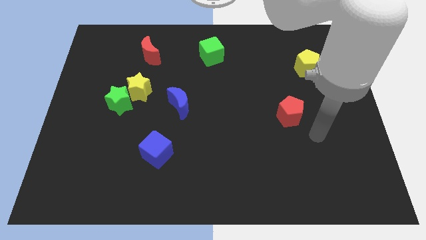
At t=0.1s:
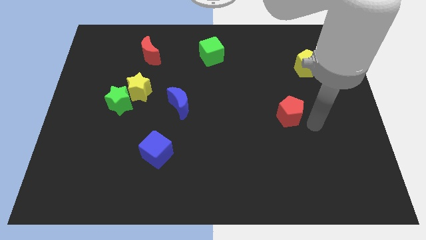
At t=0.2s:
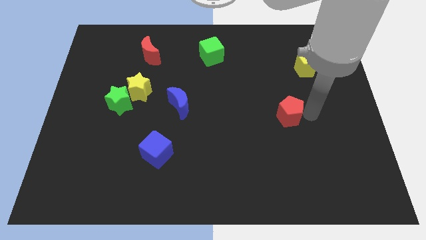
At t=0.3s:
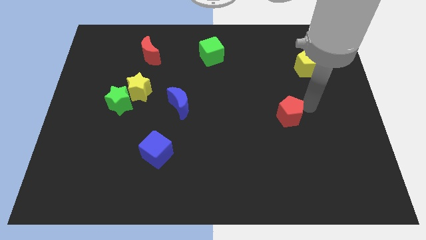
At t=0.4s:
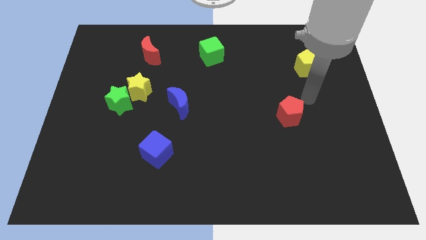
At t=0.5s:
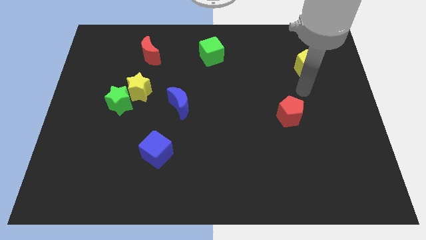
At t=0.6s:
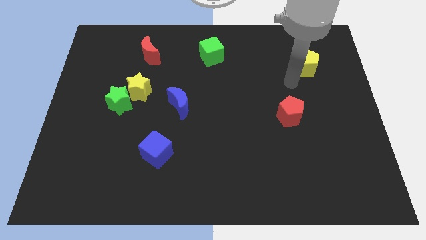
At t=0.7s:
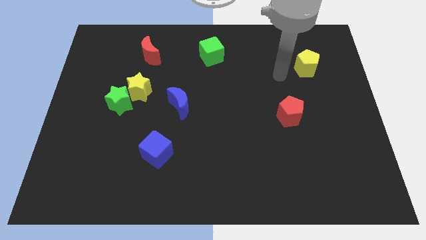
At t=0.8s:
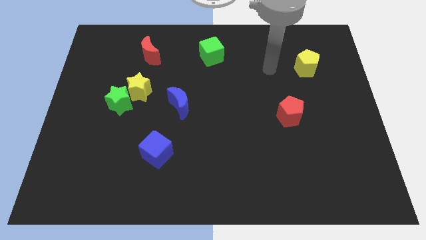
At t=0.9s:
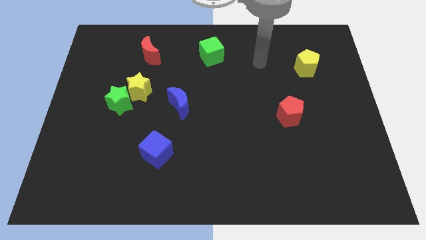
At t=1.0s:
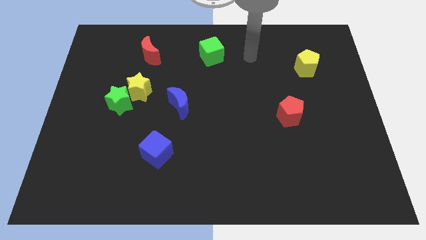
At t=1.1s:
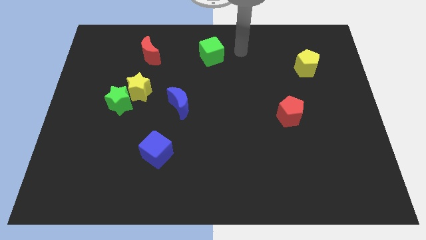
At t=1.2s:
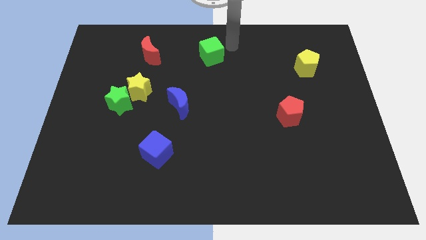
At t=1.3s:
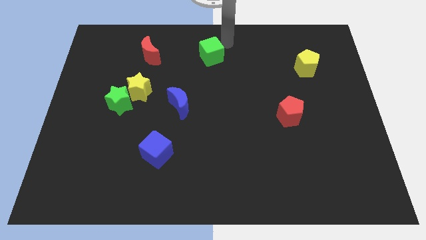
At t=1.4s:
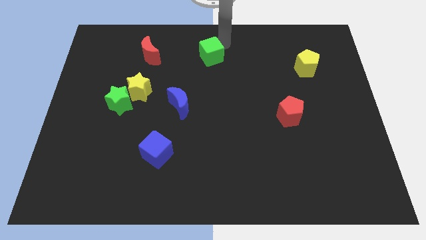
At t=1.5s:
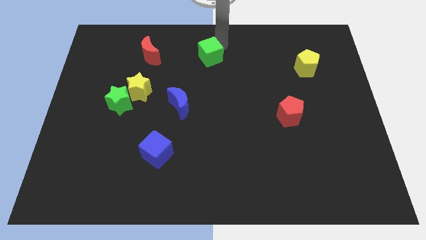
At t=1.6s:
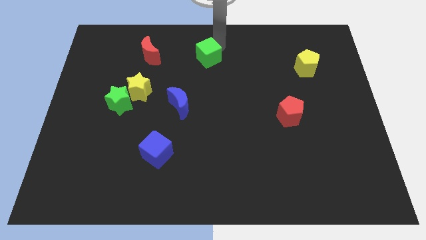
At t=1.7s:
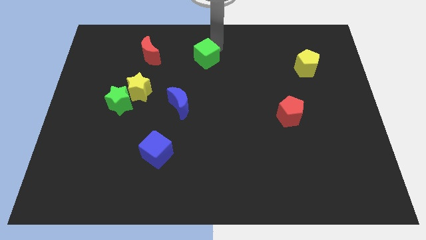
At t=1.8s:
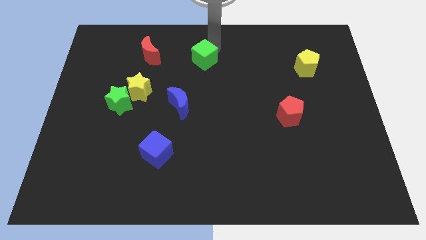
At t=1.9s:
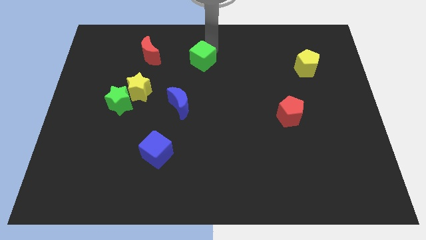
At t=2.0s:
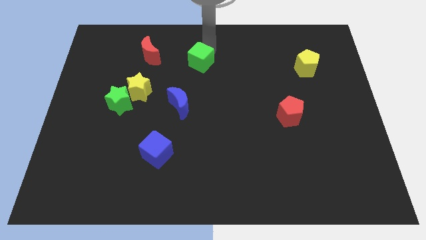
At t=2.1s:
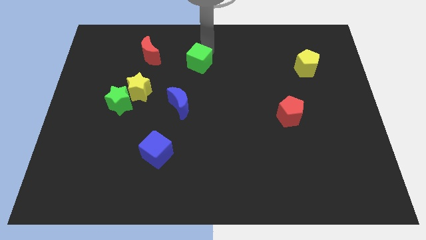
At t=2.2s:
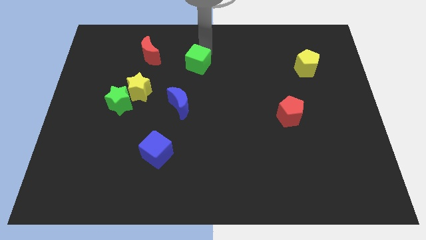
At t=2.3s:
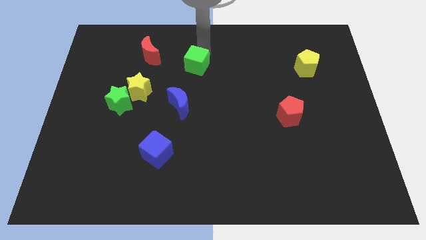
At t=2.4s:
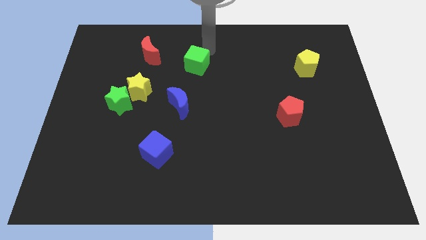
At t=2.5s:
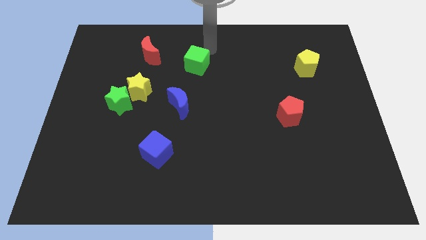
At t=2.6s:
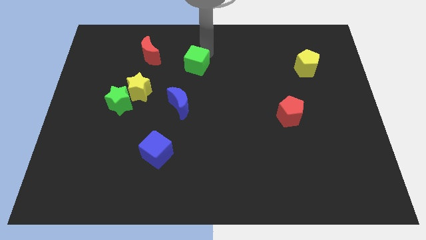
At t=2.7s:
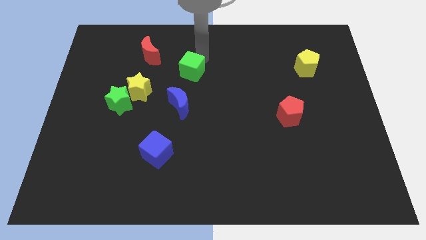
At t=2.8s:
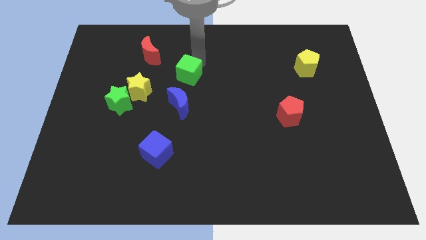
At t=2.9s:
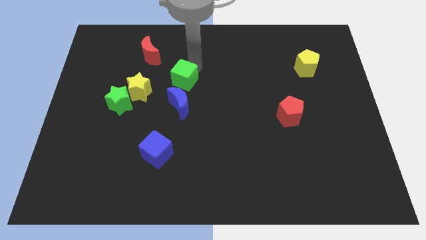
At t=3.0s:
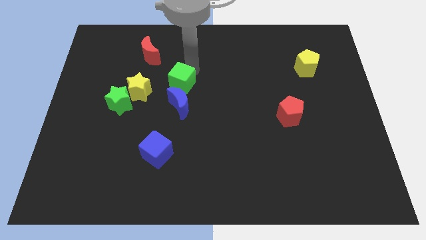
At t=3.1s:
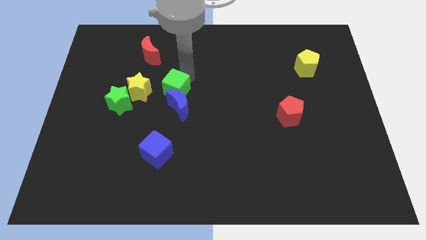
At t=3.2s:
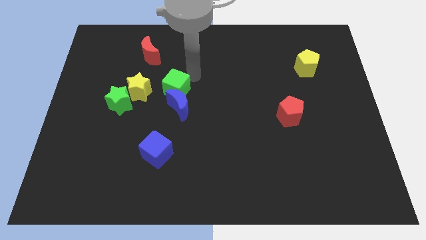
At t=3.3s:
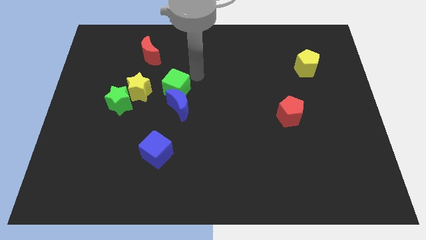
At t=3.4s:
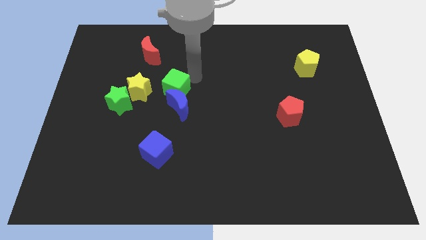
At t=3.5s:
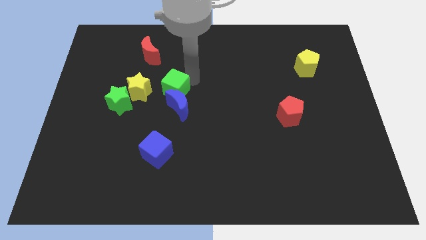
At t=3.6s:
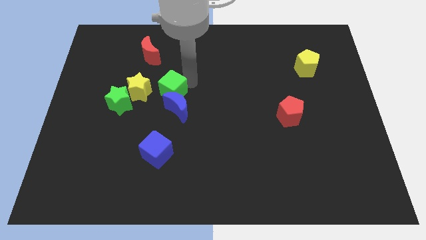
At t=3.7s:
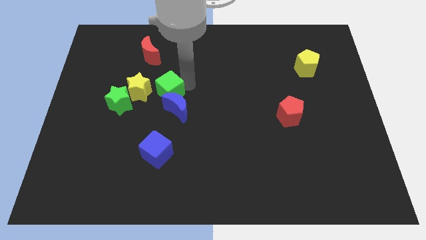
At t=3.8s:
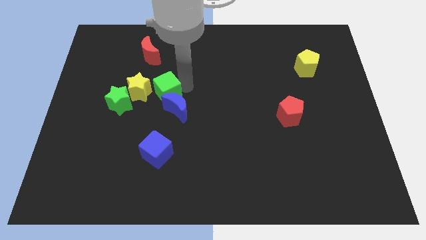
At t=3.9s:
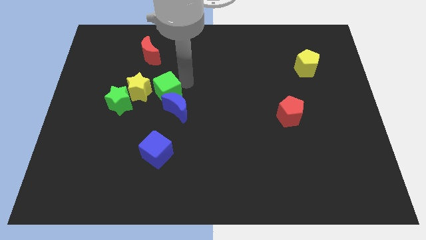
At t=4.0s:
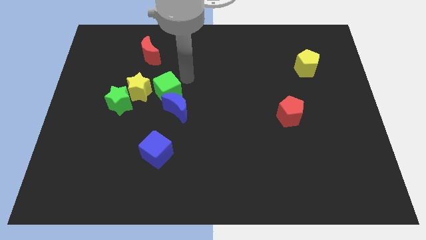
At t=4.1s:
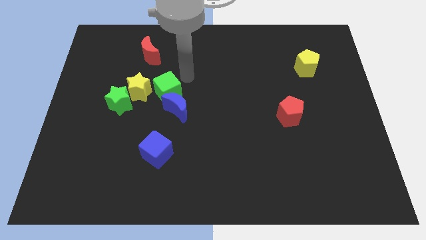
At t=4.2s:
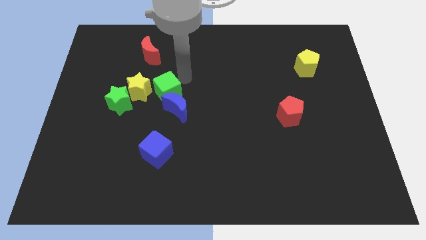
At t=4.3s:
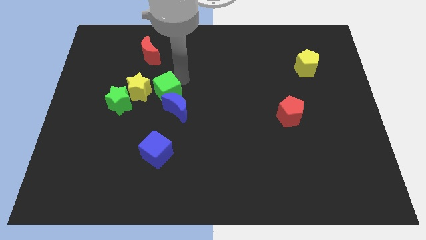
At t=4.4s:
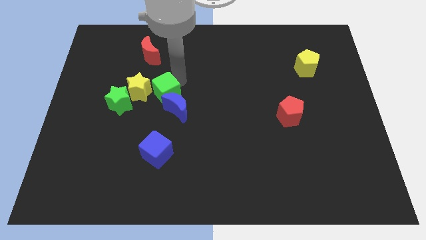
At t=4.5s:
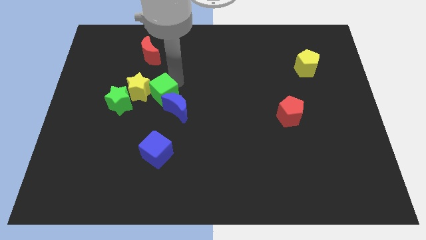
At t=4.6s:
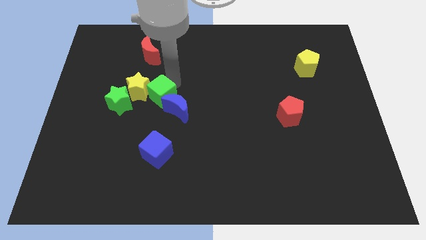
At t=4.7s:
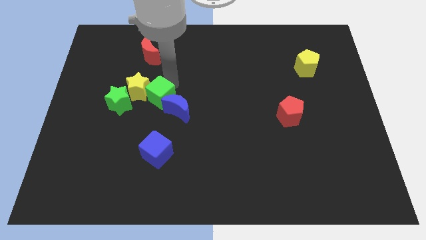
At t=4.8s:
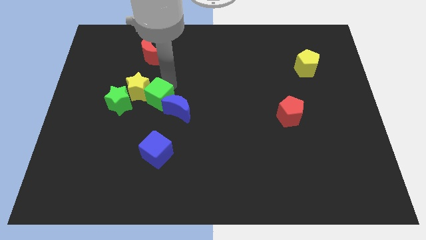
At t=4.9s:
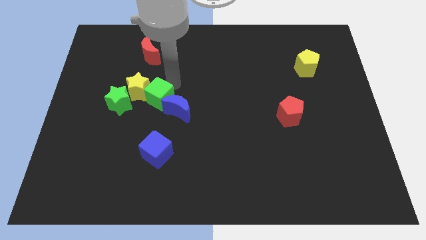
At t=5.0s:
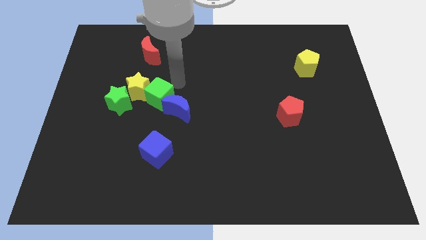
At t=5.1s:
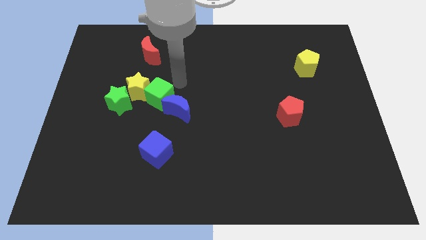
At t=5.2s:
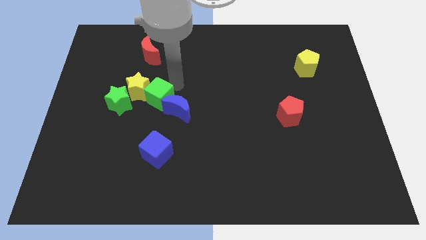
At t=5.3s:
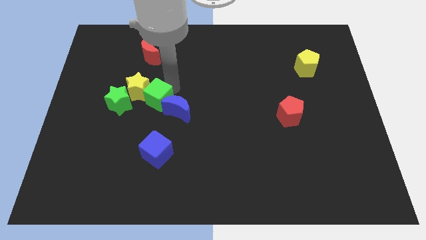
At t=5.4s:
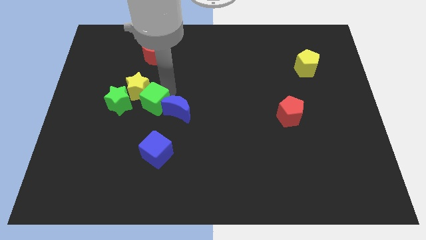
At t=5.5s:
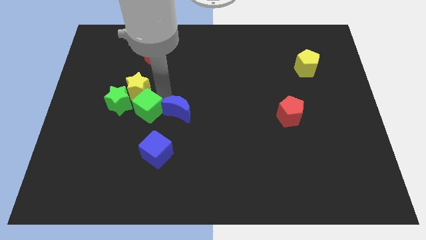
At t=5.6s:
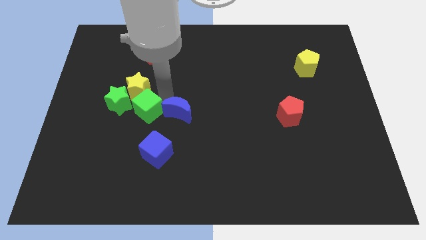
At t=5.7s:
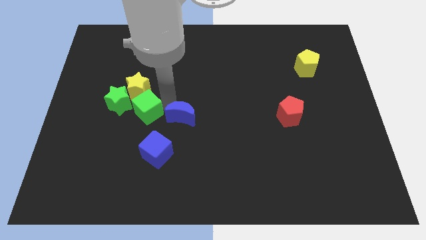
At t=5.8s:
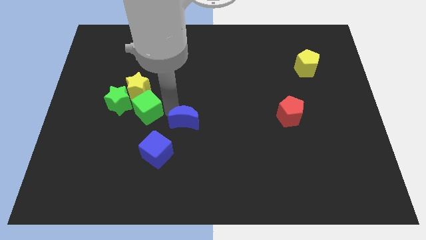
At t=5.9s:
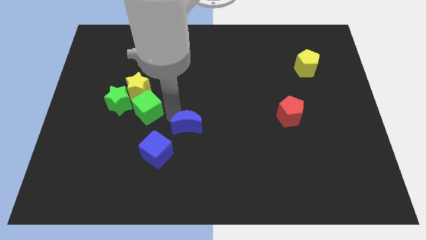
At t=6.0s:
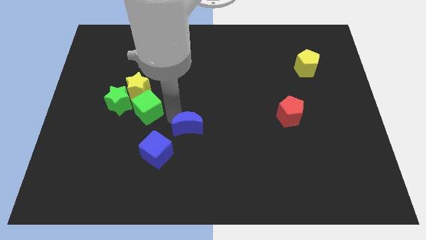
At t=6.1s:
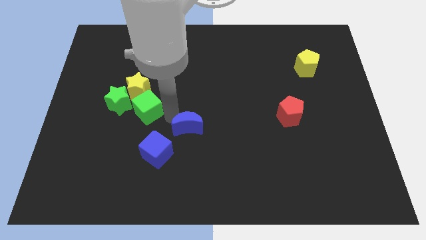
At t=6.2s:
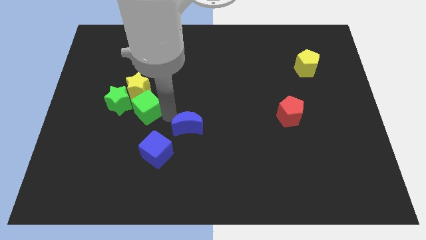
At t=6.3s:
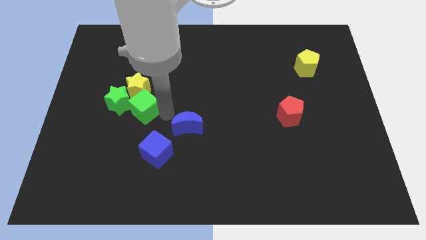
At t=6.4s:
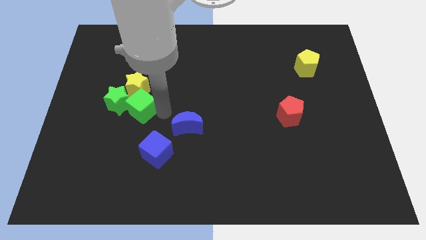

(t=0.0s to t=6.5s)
push the green cube next to the green star

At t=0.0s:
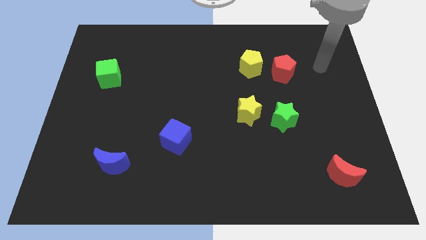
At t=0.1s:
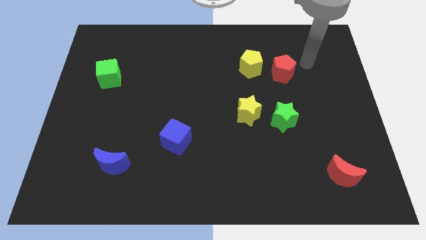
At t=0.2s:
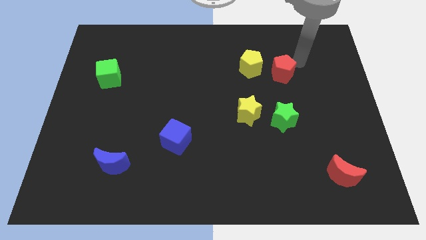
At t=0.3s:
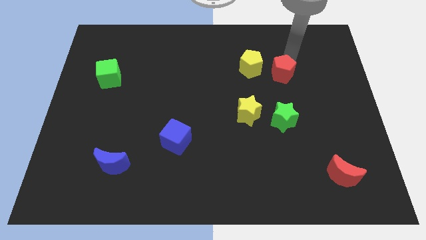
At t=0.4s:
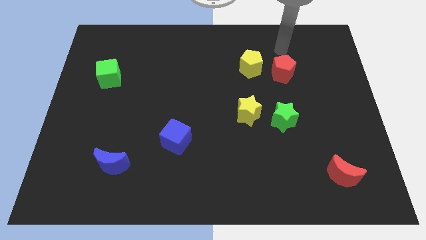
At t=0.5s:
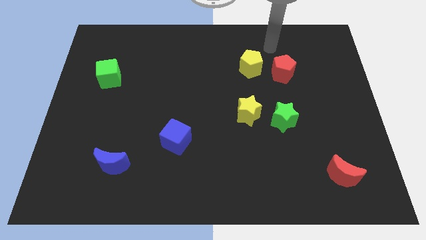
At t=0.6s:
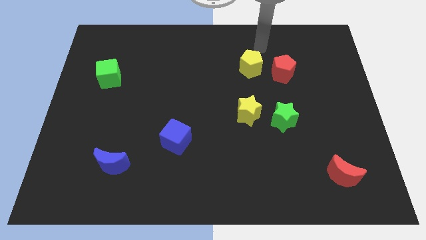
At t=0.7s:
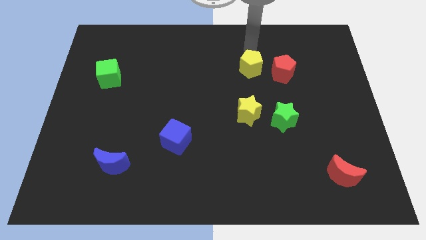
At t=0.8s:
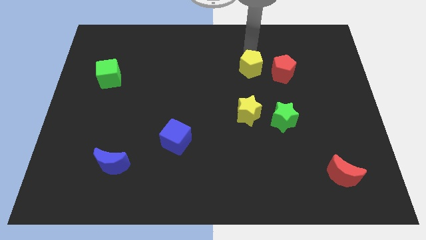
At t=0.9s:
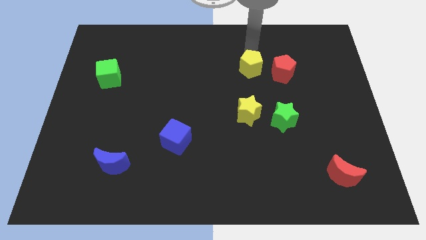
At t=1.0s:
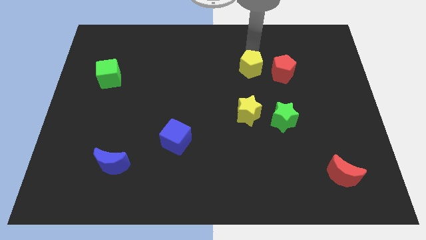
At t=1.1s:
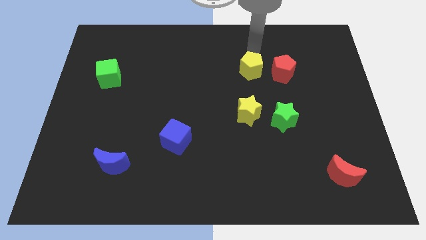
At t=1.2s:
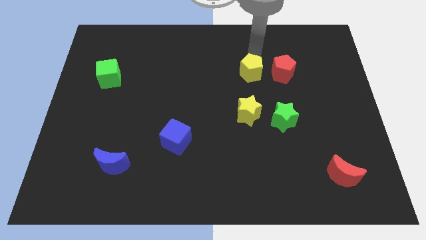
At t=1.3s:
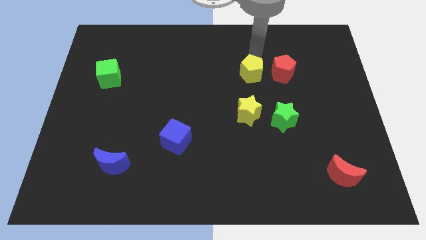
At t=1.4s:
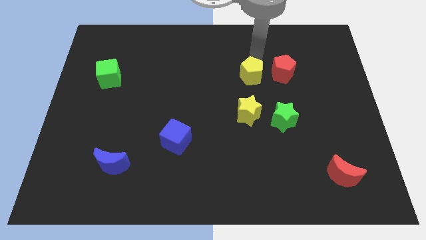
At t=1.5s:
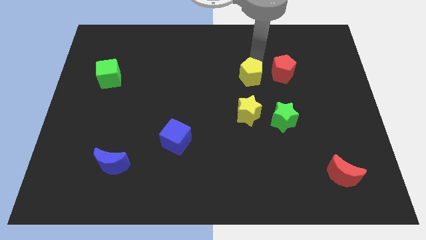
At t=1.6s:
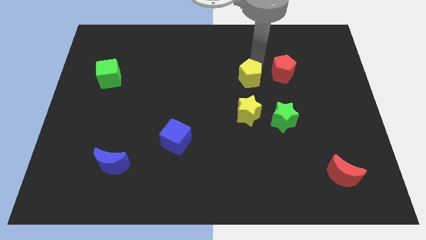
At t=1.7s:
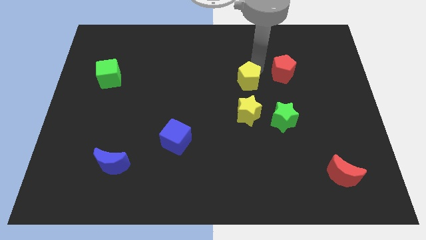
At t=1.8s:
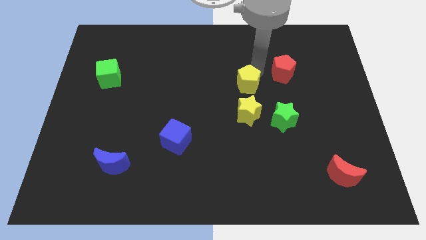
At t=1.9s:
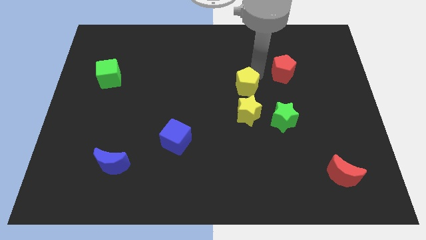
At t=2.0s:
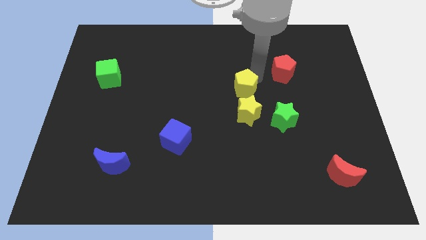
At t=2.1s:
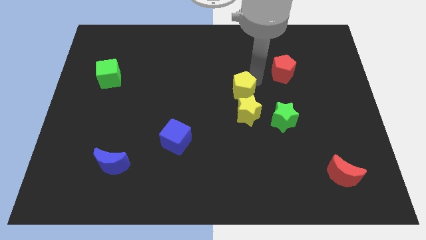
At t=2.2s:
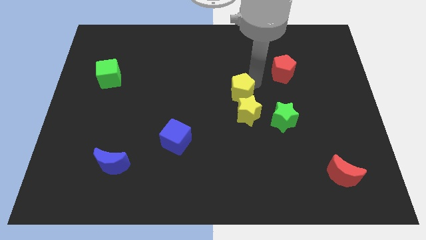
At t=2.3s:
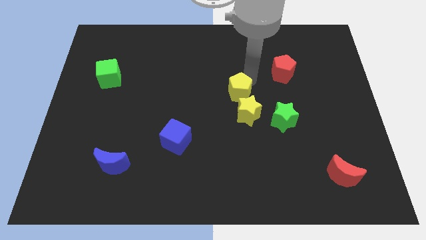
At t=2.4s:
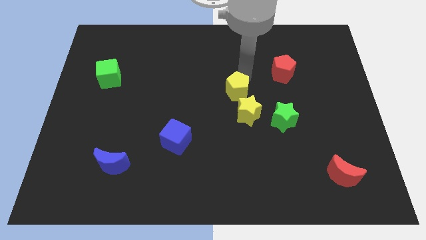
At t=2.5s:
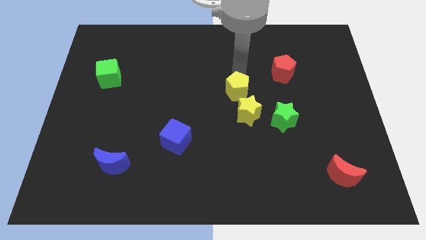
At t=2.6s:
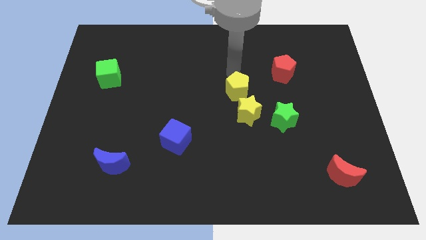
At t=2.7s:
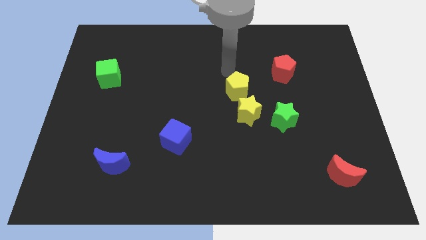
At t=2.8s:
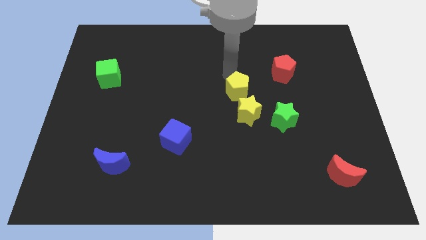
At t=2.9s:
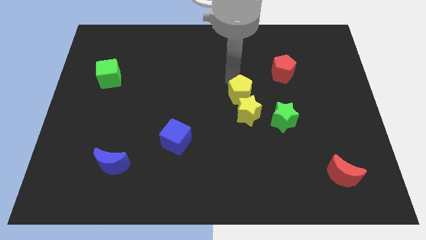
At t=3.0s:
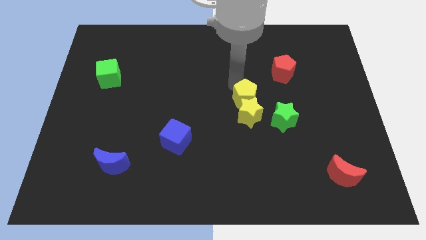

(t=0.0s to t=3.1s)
move the yellow pentagon towards the yellow star
